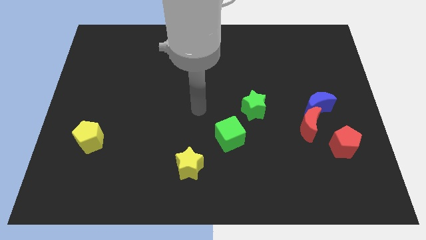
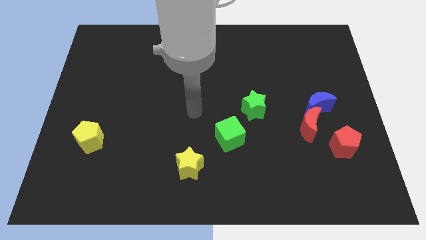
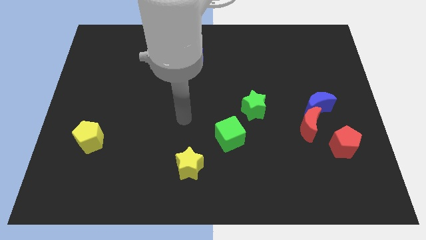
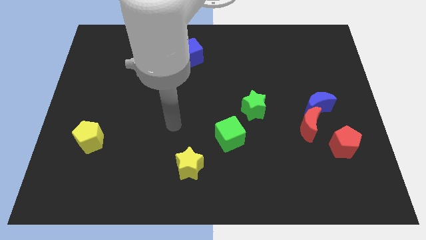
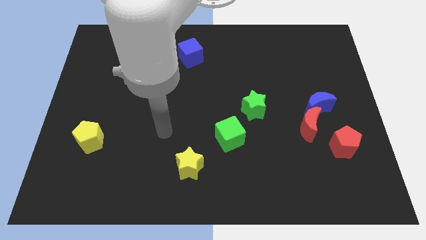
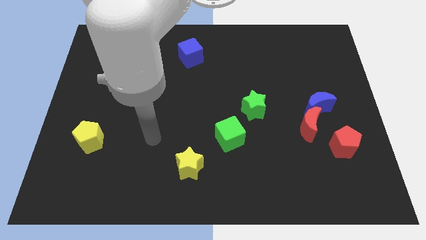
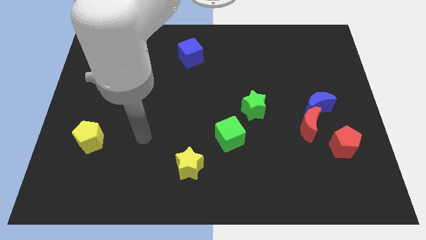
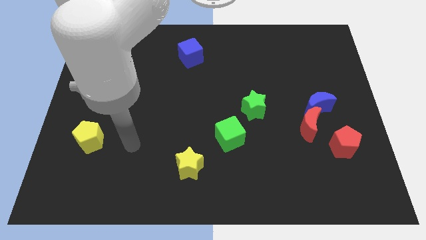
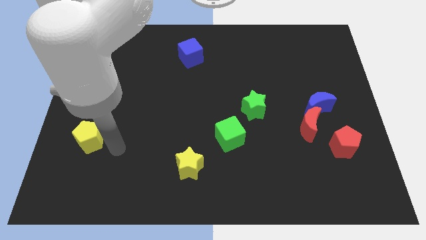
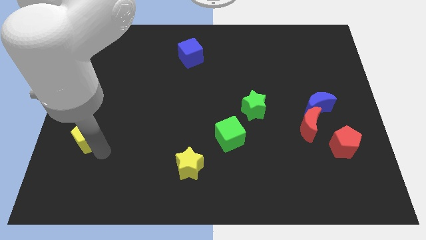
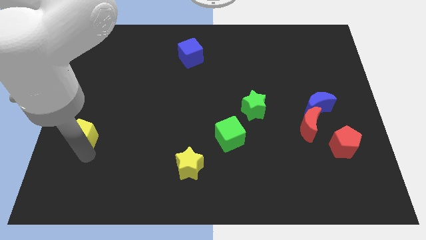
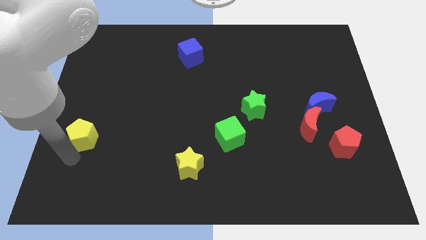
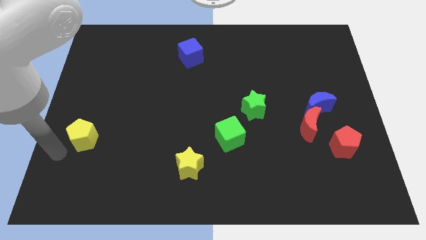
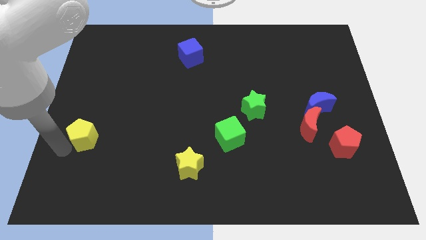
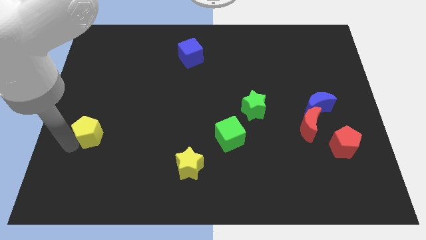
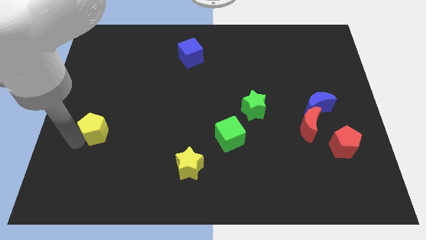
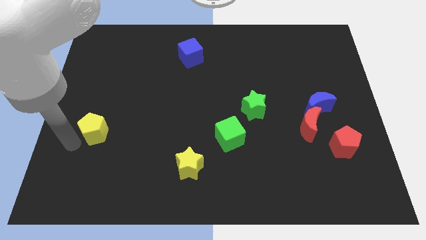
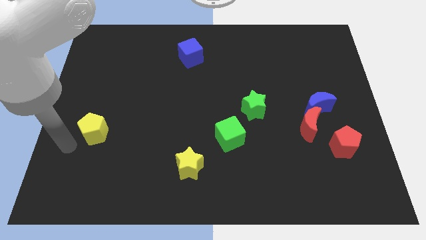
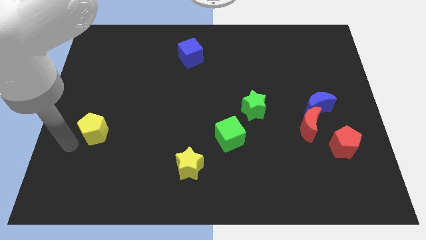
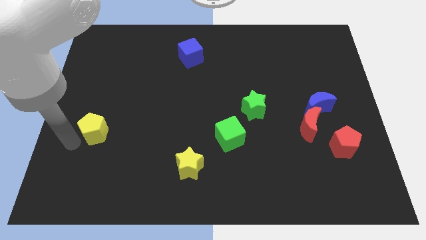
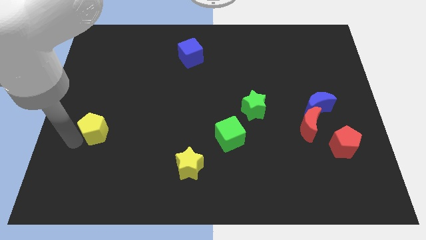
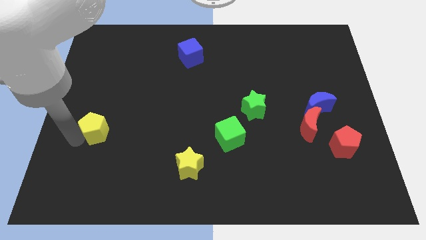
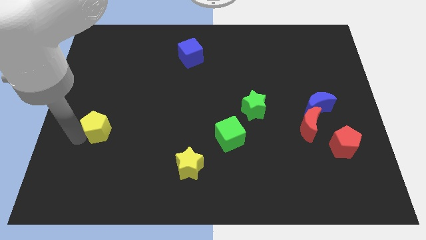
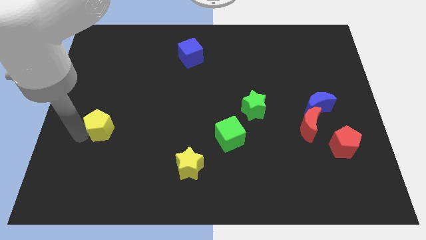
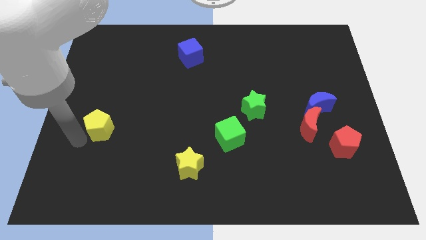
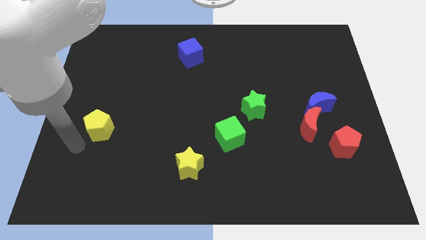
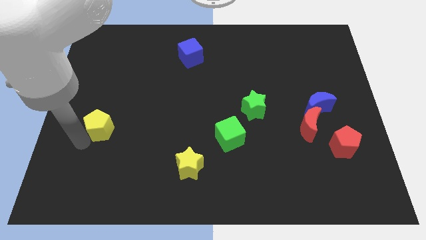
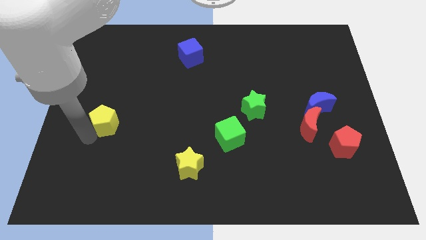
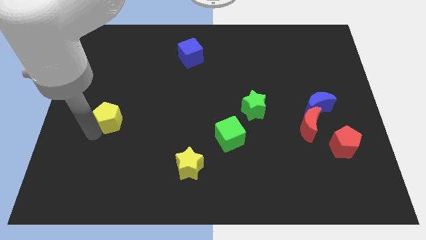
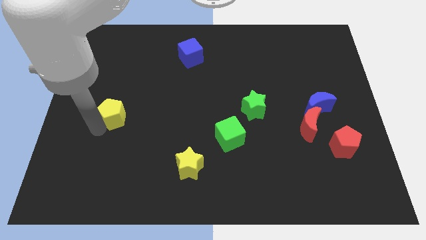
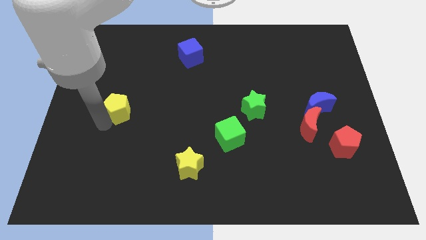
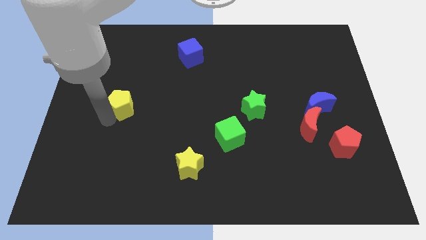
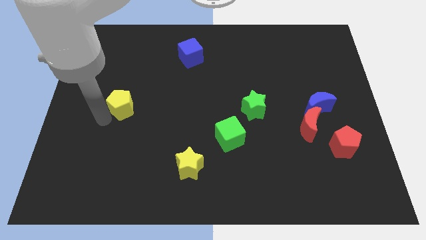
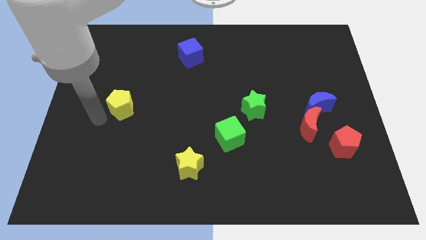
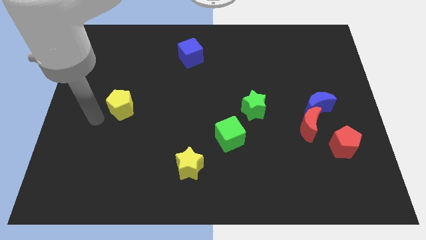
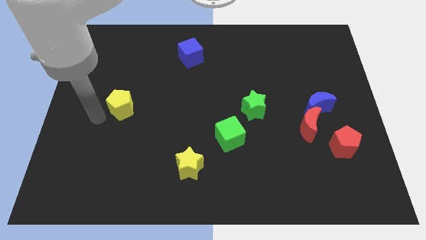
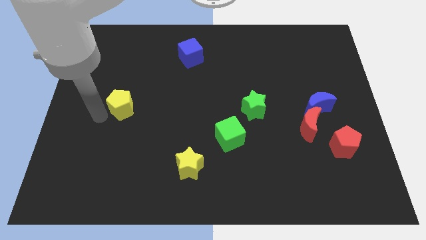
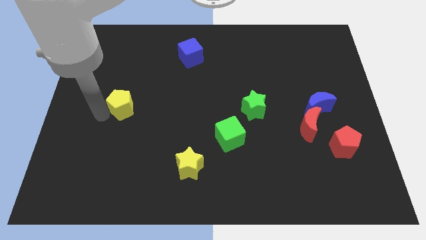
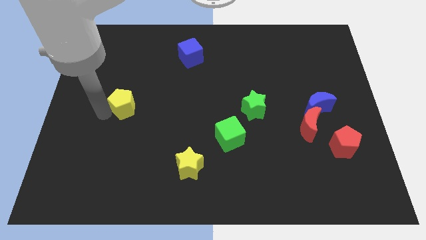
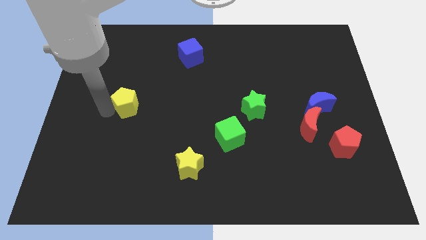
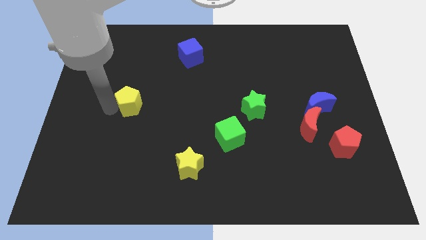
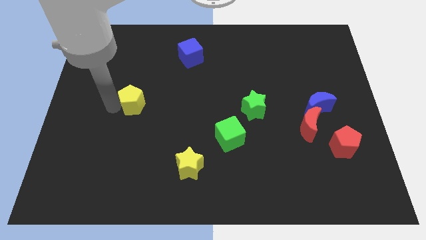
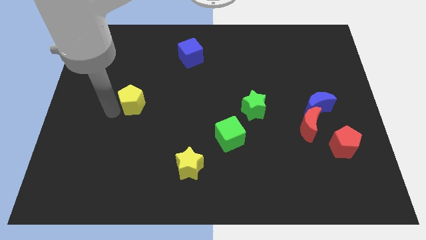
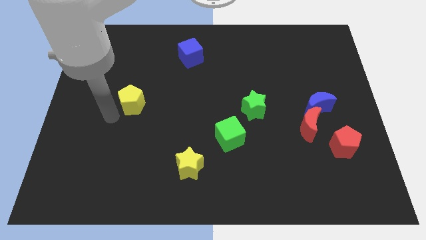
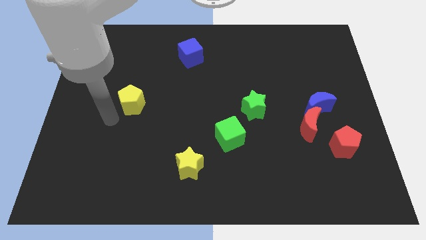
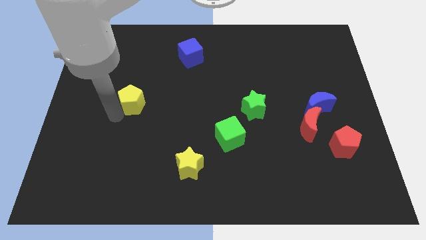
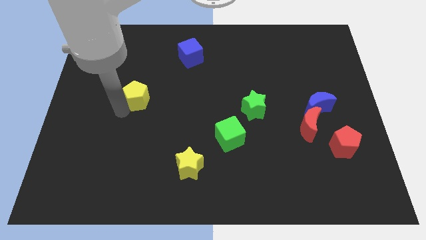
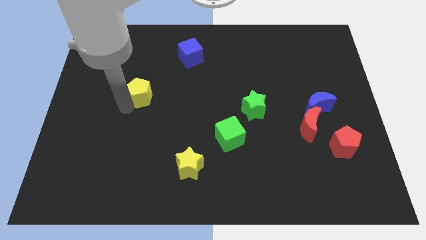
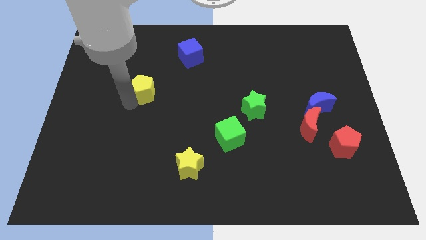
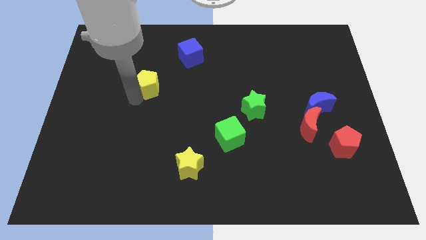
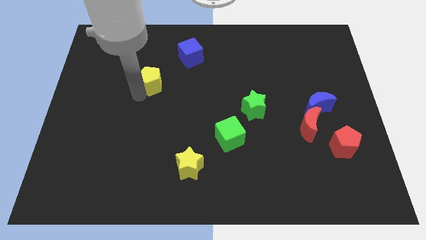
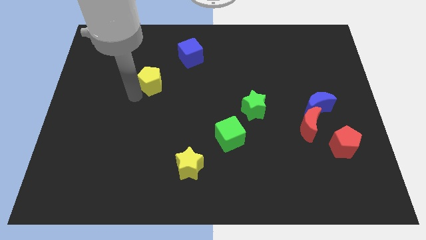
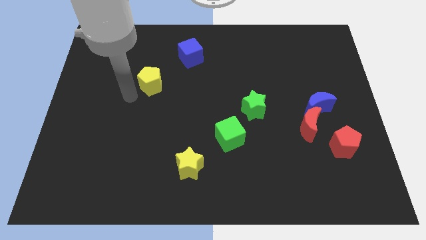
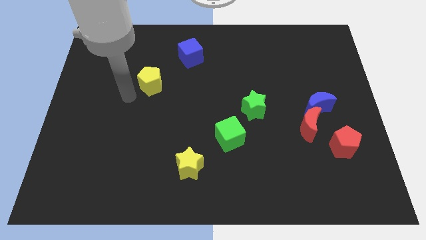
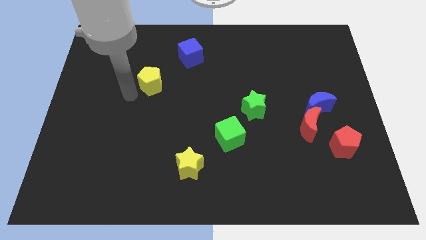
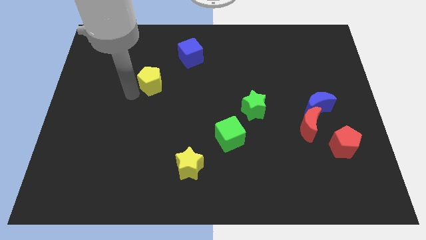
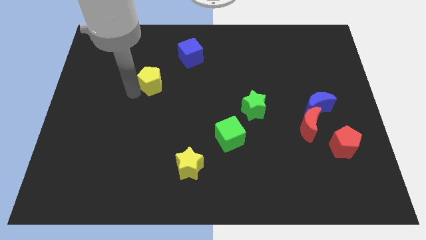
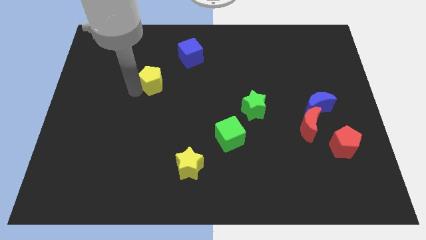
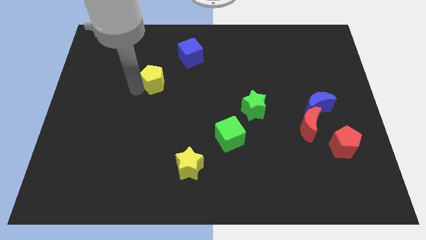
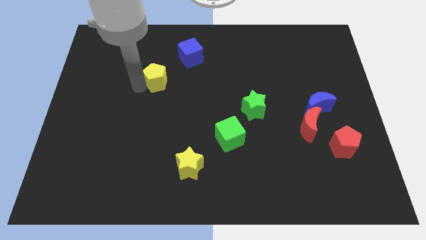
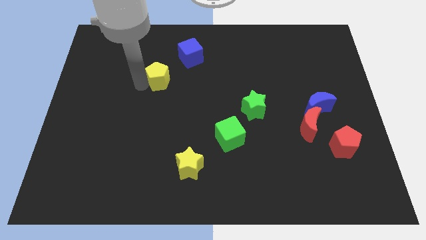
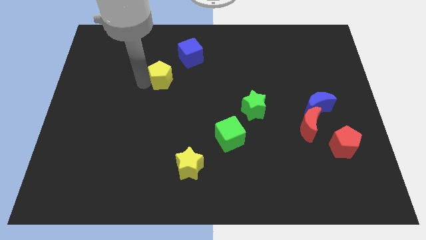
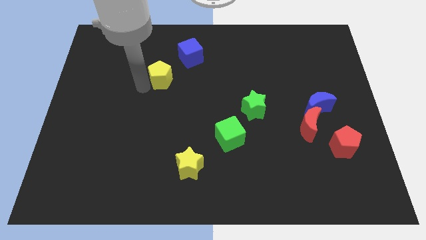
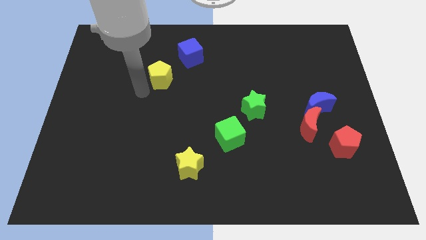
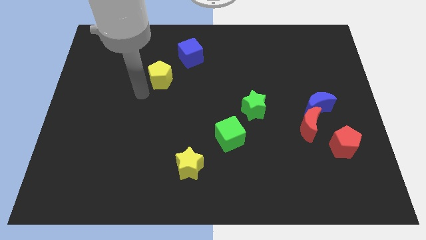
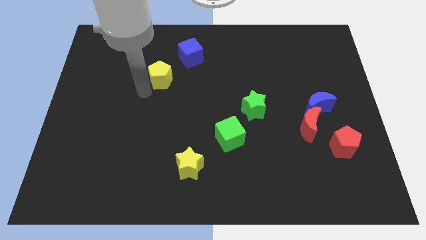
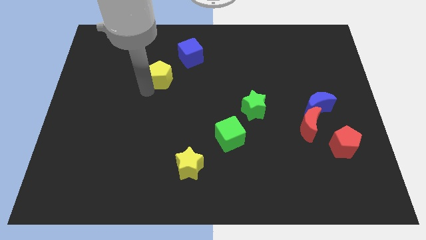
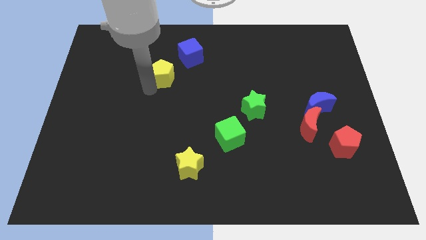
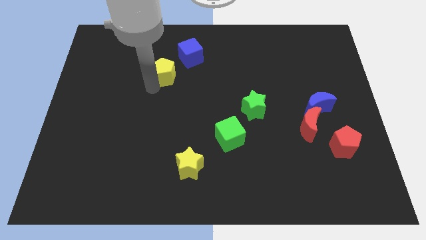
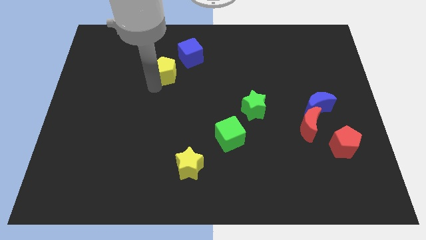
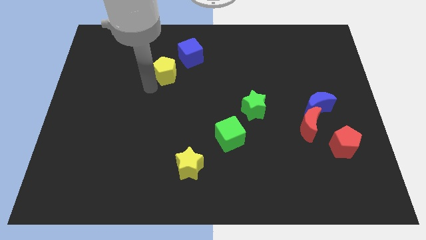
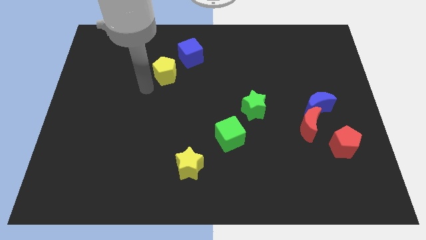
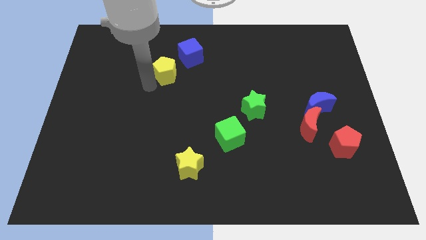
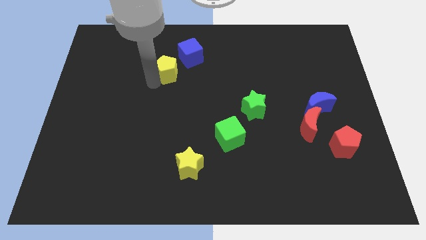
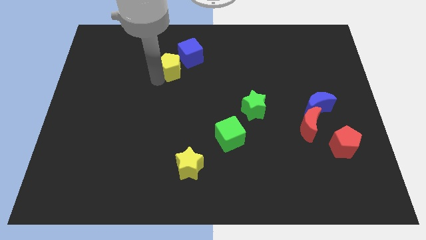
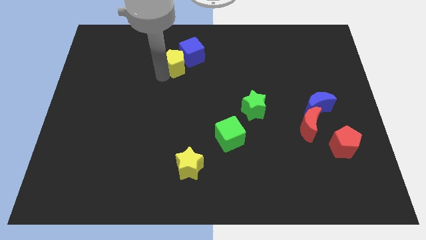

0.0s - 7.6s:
push the yellow pentagon close to the blue cube

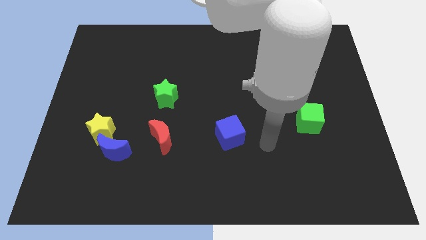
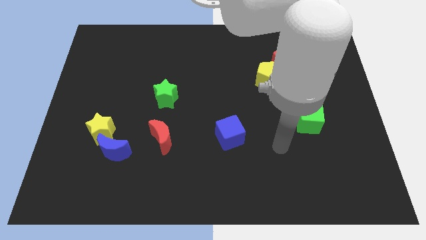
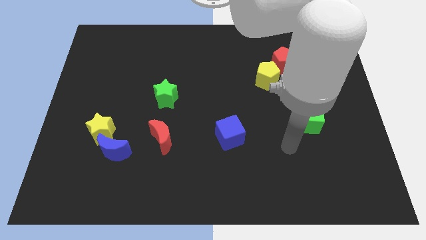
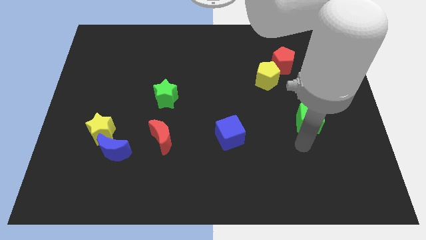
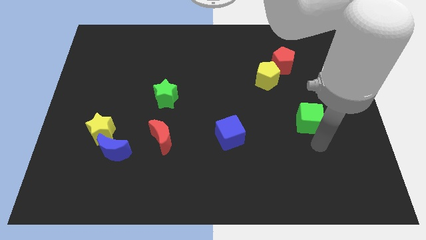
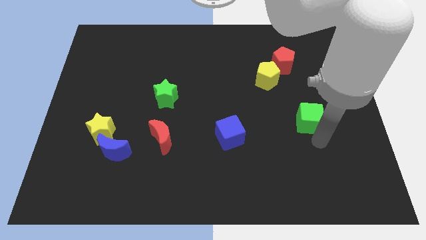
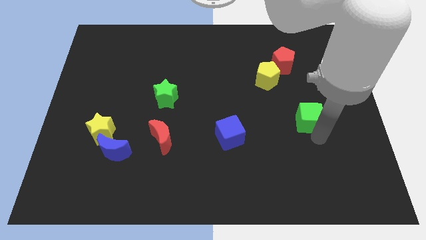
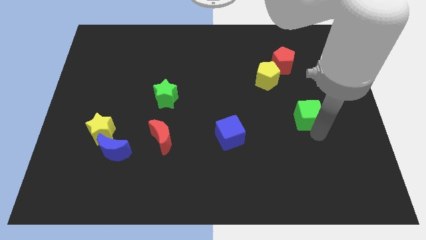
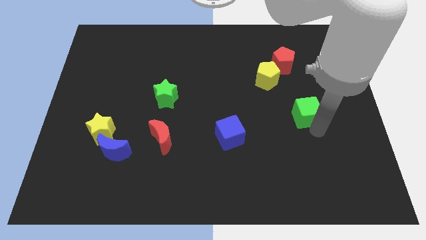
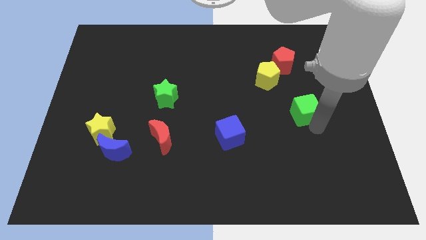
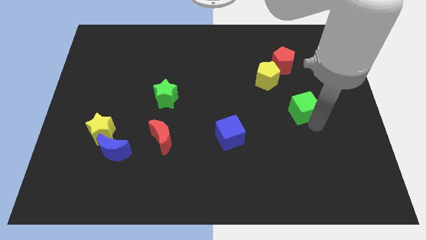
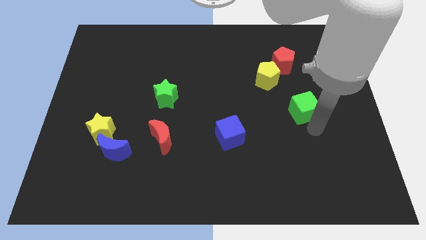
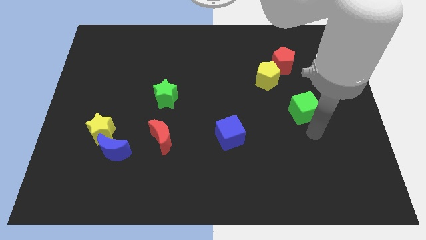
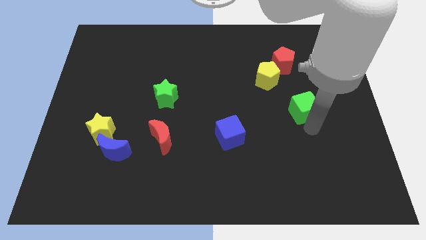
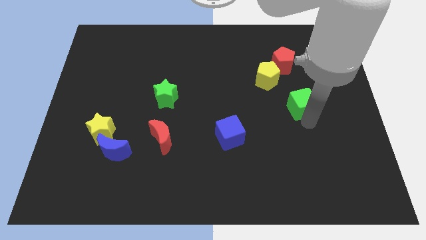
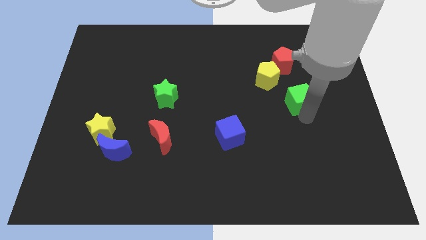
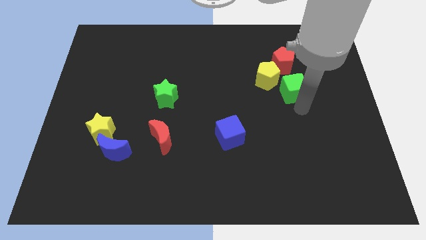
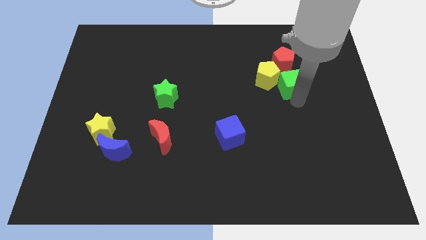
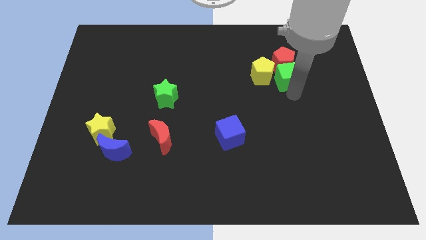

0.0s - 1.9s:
push the green cube to the red pentagon
